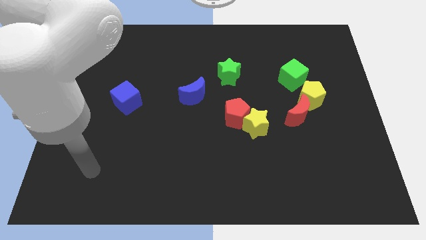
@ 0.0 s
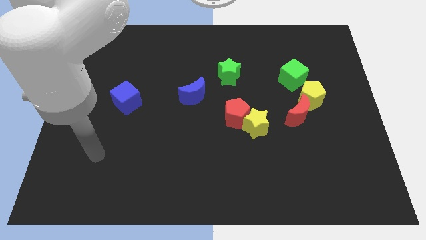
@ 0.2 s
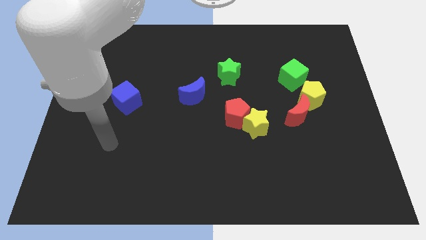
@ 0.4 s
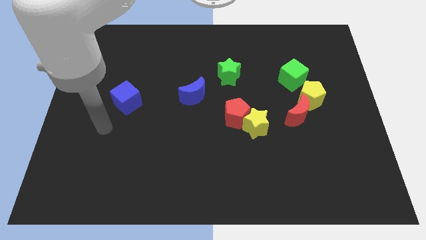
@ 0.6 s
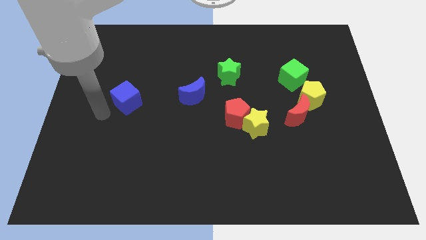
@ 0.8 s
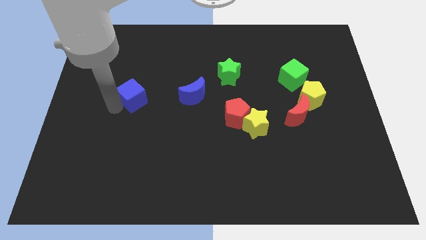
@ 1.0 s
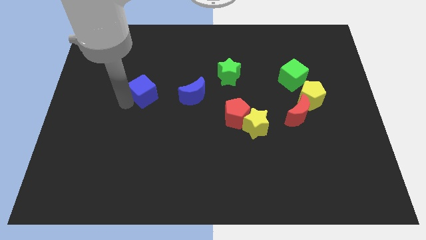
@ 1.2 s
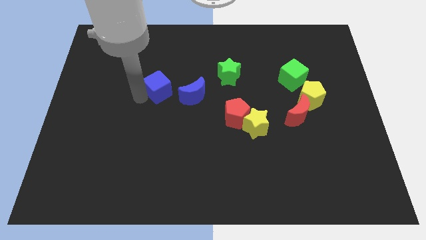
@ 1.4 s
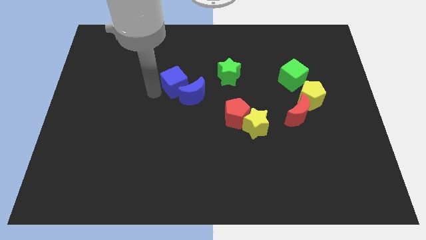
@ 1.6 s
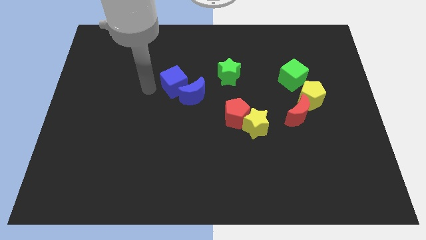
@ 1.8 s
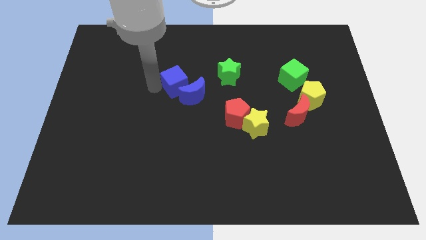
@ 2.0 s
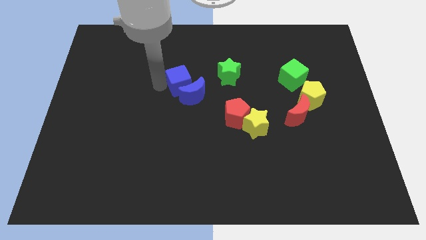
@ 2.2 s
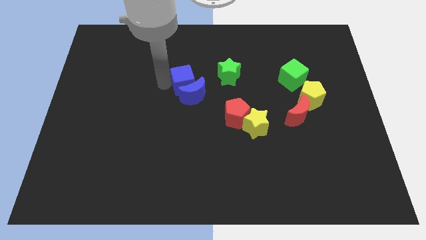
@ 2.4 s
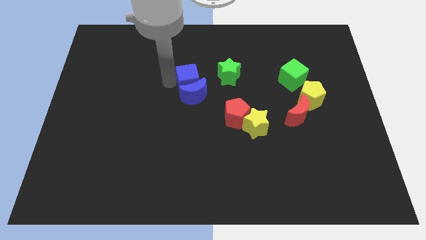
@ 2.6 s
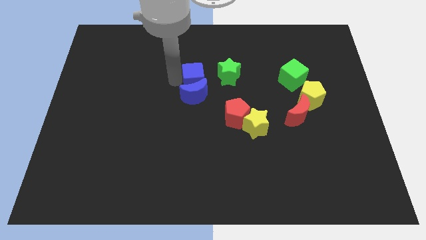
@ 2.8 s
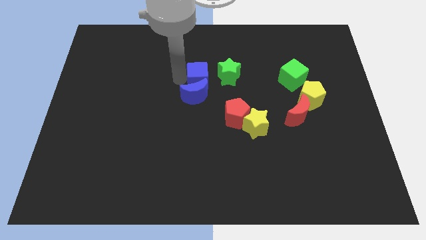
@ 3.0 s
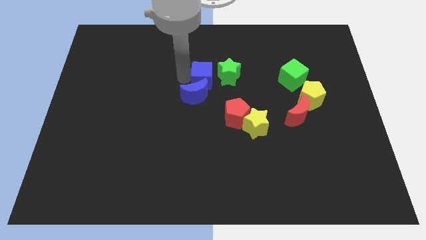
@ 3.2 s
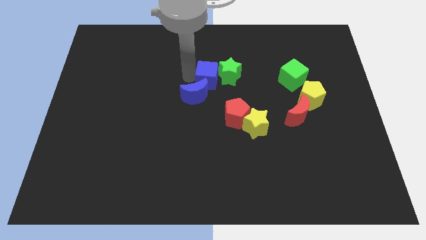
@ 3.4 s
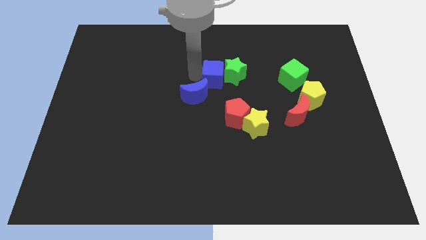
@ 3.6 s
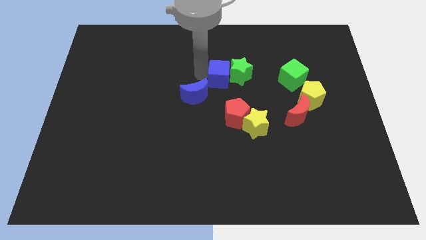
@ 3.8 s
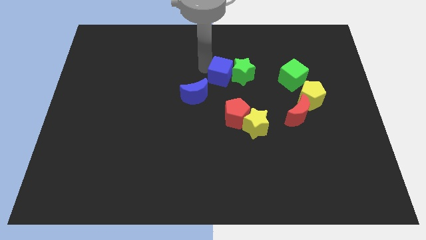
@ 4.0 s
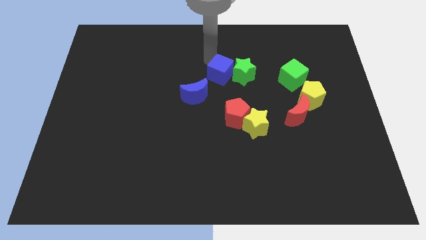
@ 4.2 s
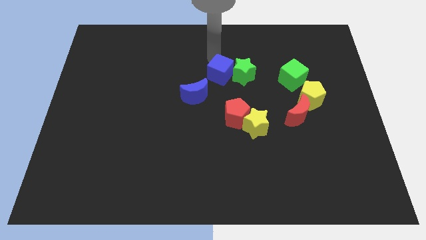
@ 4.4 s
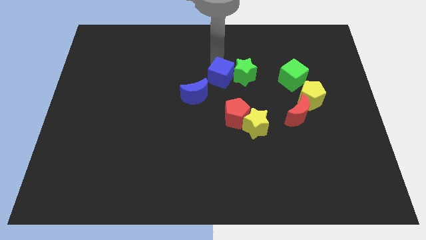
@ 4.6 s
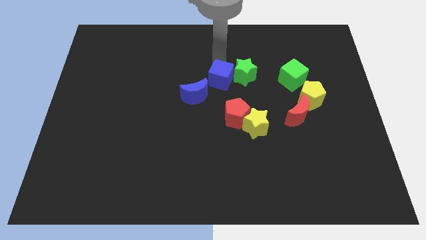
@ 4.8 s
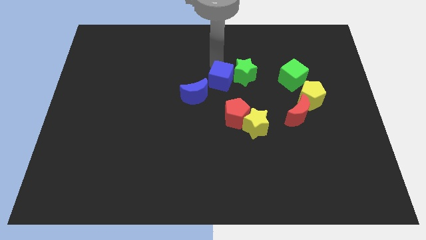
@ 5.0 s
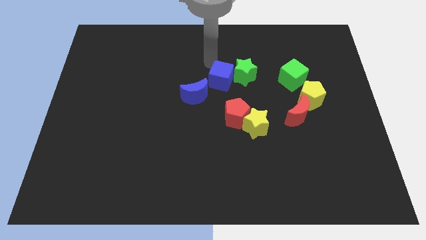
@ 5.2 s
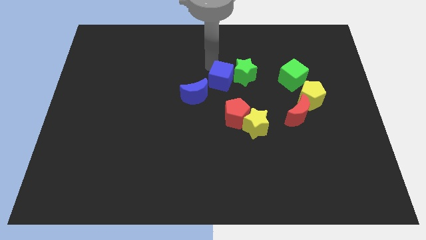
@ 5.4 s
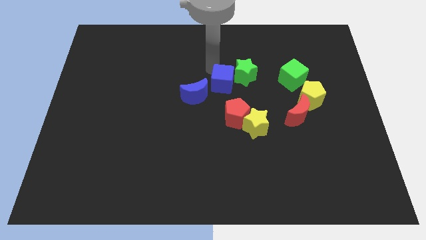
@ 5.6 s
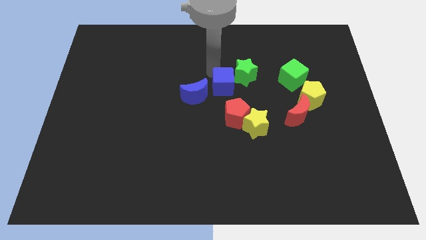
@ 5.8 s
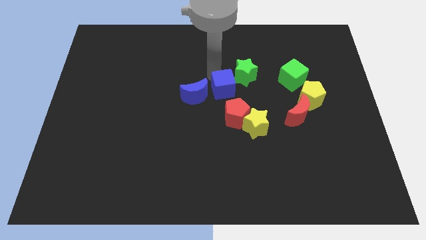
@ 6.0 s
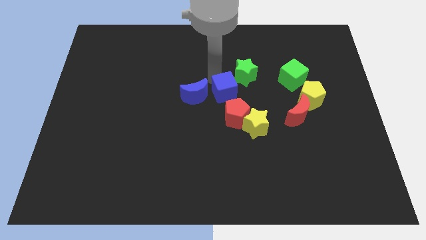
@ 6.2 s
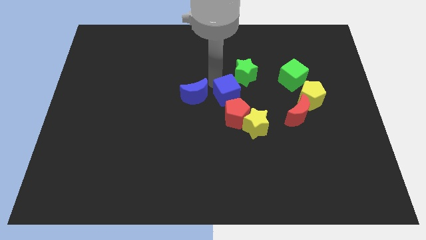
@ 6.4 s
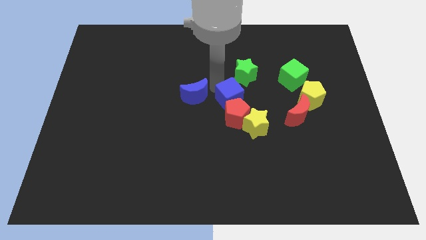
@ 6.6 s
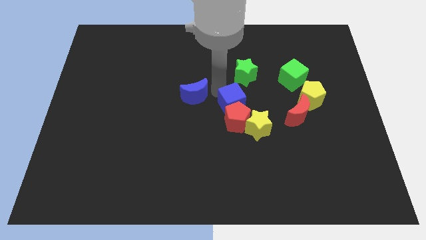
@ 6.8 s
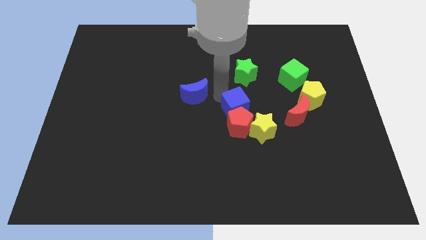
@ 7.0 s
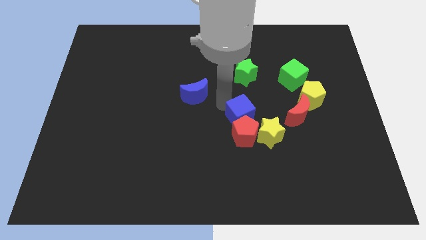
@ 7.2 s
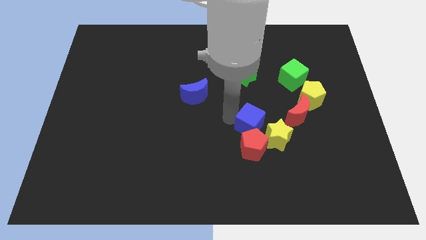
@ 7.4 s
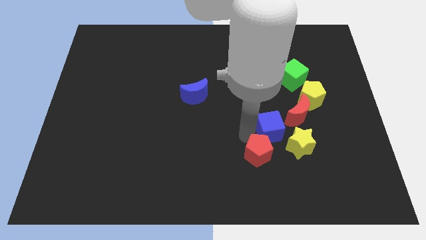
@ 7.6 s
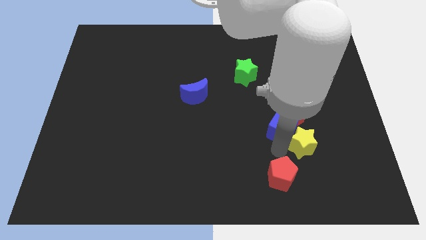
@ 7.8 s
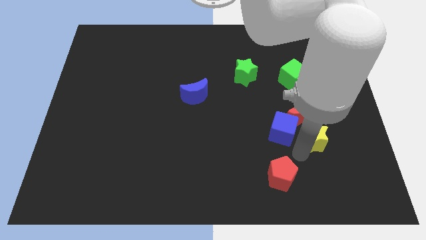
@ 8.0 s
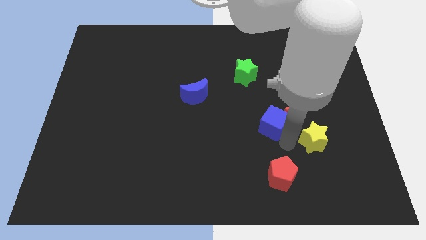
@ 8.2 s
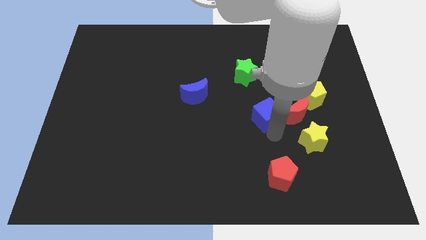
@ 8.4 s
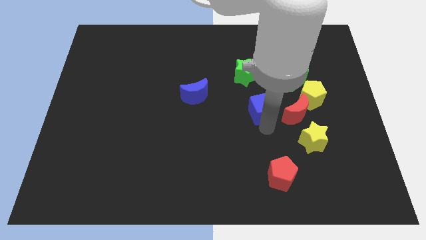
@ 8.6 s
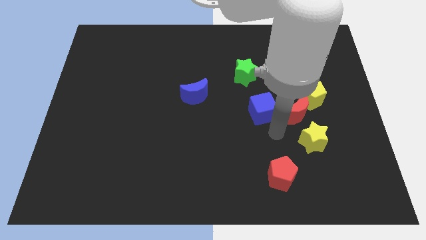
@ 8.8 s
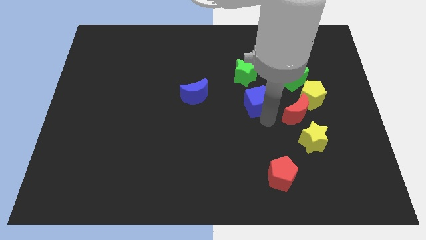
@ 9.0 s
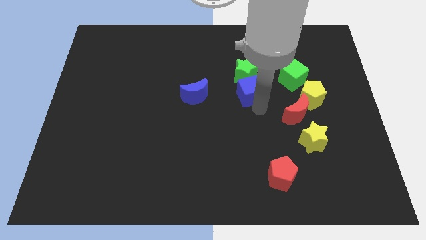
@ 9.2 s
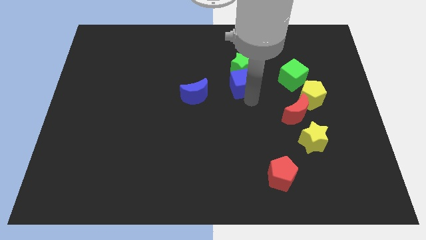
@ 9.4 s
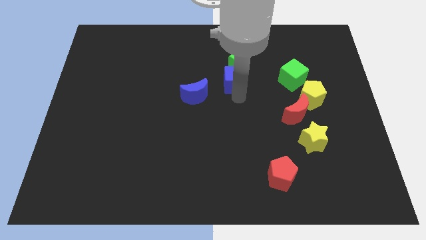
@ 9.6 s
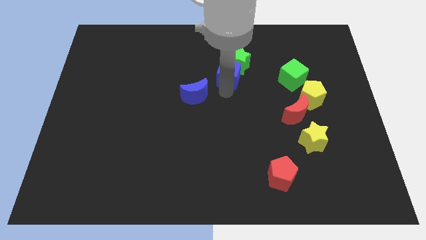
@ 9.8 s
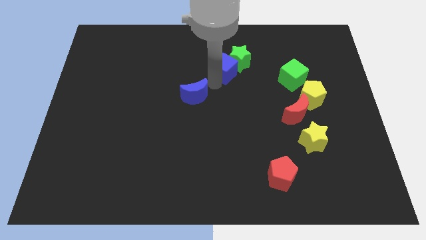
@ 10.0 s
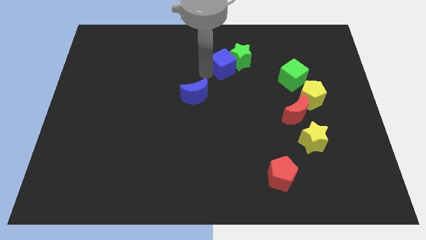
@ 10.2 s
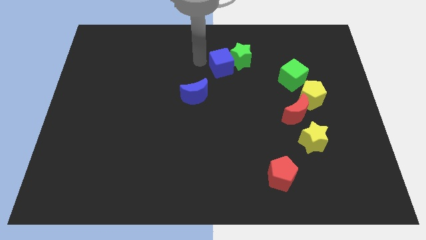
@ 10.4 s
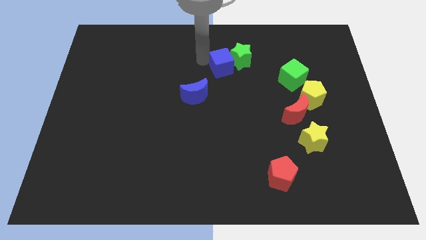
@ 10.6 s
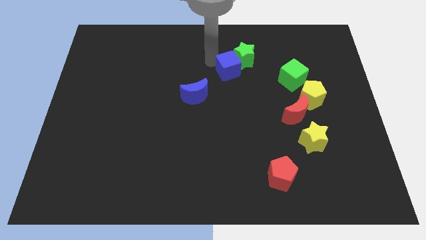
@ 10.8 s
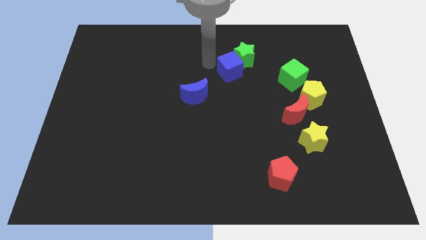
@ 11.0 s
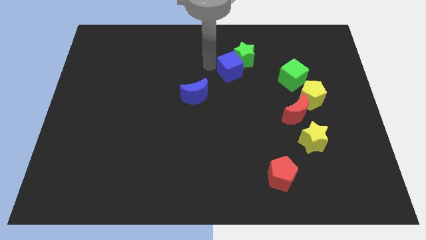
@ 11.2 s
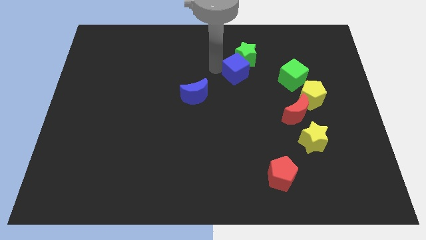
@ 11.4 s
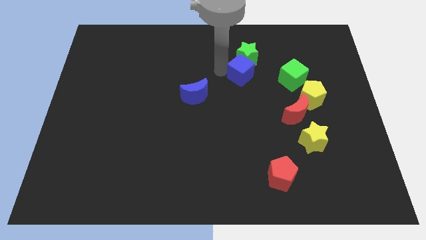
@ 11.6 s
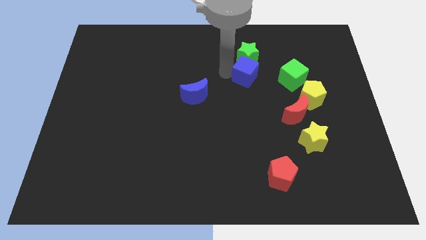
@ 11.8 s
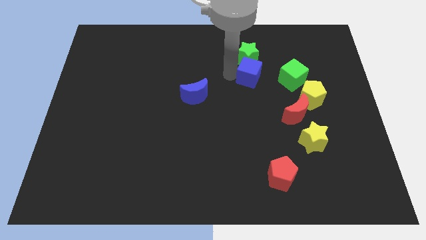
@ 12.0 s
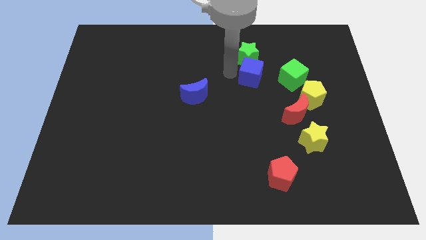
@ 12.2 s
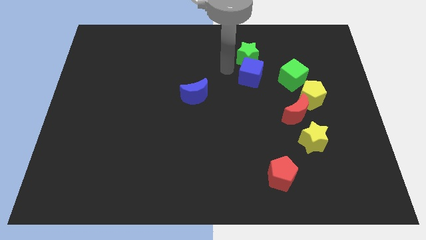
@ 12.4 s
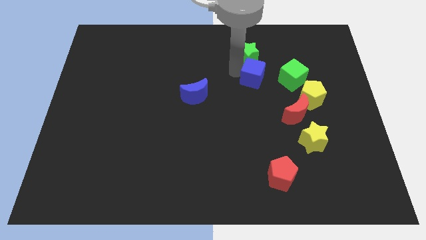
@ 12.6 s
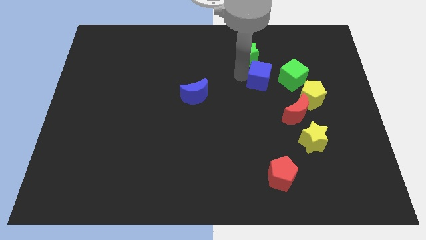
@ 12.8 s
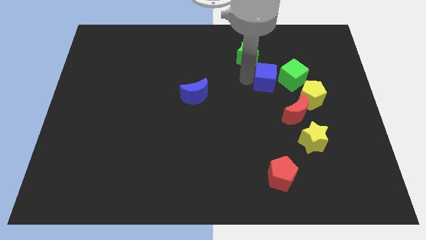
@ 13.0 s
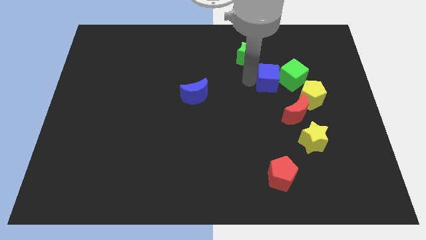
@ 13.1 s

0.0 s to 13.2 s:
put the blue cube to the green cube

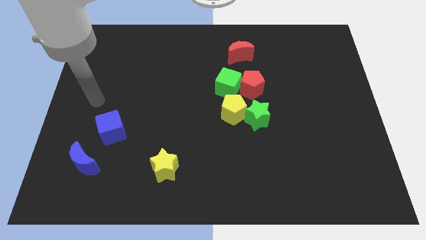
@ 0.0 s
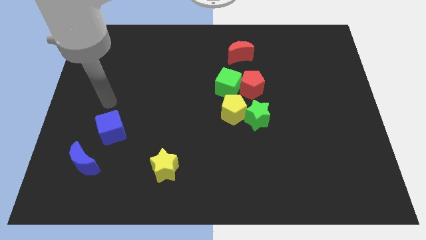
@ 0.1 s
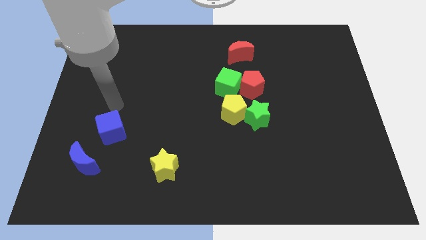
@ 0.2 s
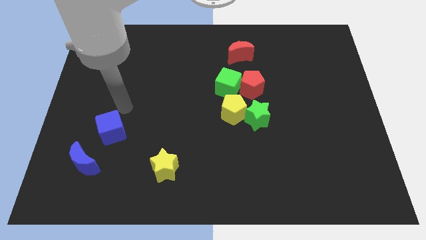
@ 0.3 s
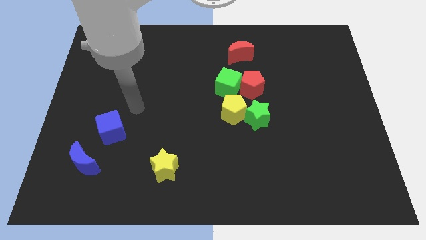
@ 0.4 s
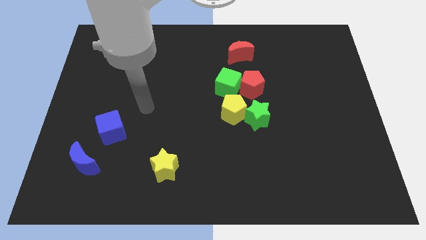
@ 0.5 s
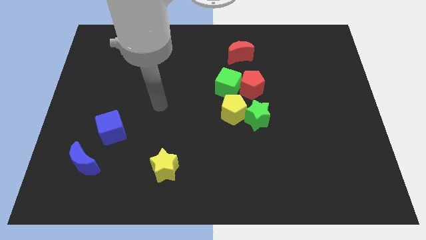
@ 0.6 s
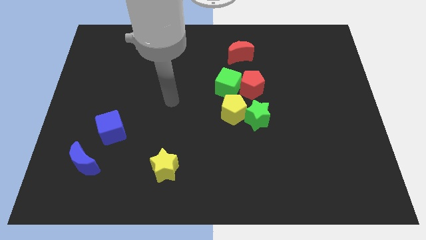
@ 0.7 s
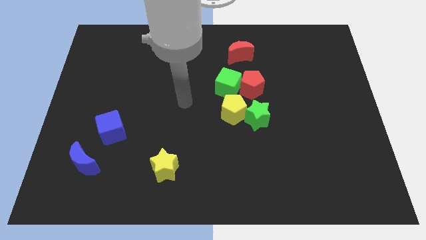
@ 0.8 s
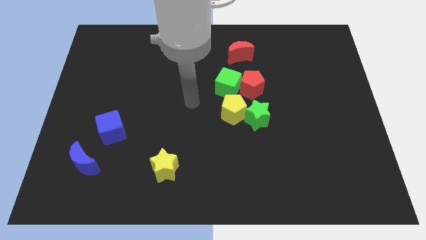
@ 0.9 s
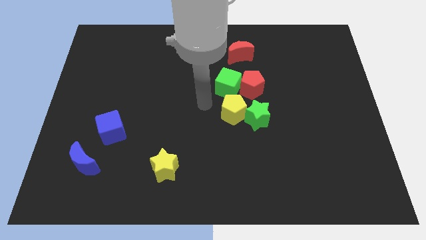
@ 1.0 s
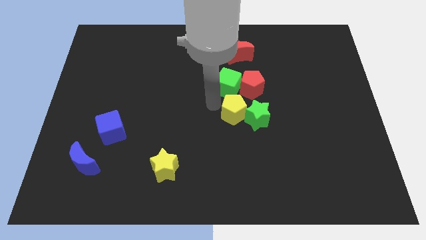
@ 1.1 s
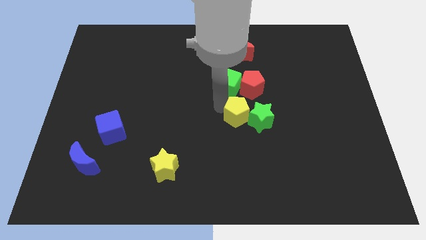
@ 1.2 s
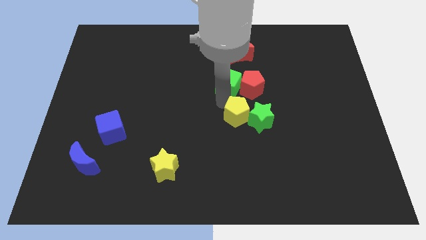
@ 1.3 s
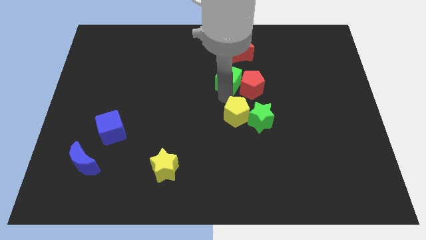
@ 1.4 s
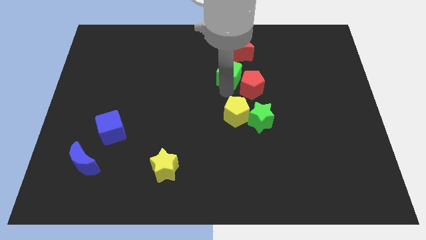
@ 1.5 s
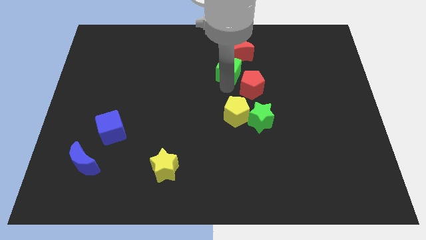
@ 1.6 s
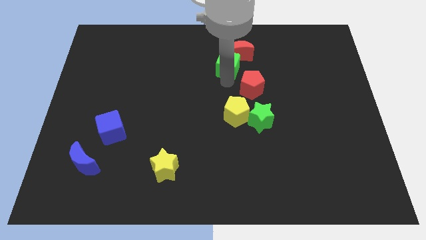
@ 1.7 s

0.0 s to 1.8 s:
slide the green cube to the red moon
